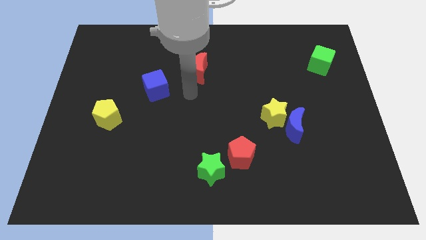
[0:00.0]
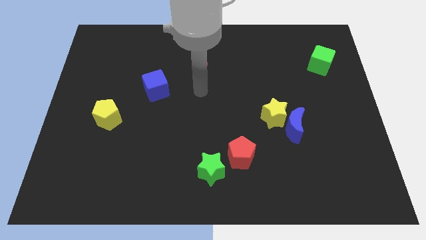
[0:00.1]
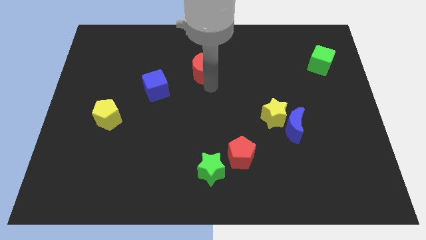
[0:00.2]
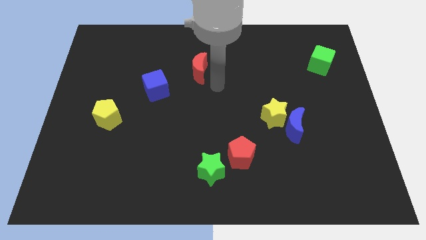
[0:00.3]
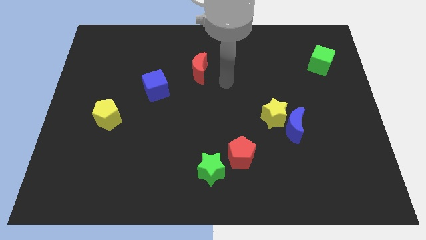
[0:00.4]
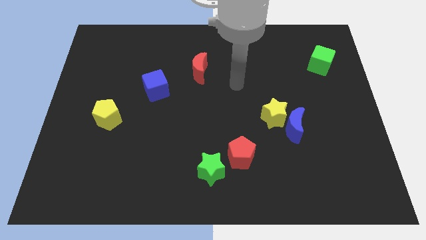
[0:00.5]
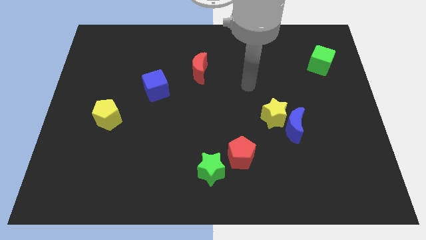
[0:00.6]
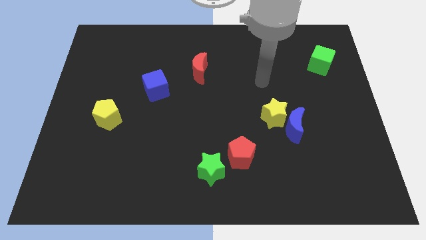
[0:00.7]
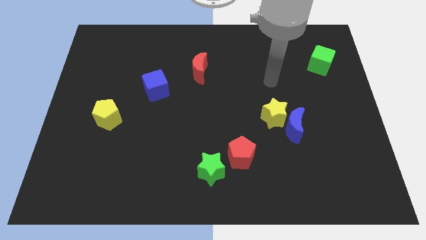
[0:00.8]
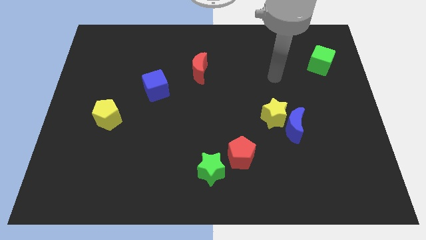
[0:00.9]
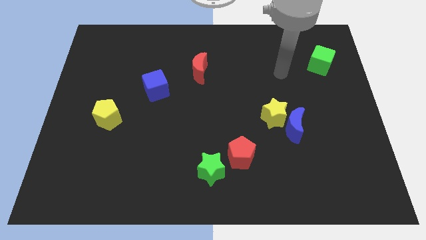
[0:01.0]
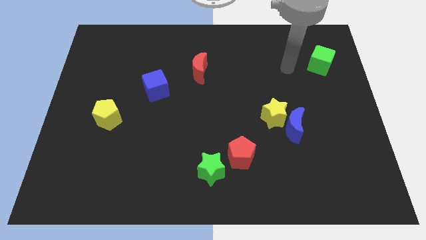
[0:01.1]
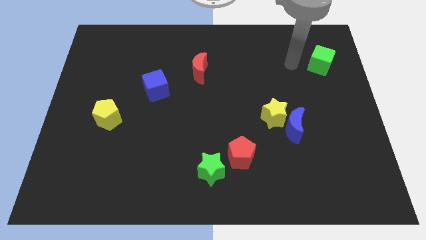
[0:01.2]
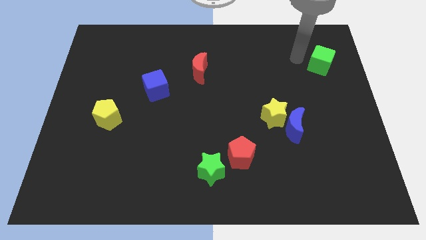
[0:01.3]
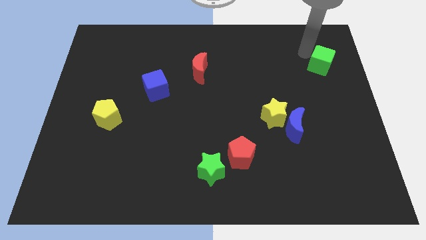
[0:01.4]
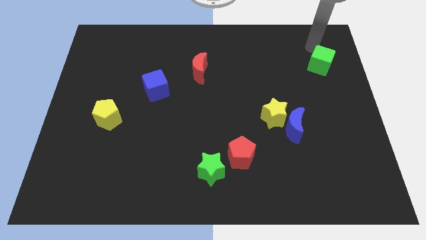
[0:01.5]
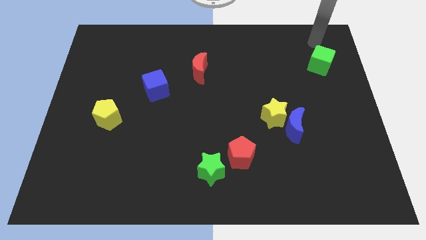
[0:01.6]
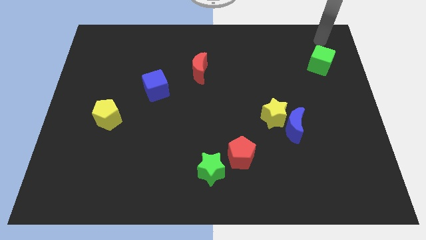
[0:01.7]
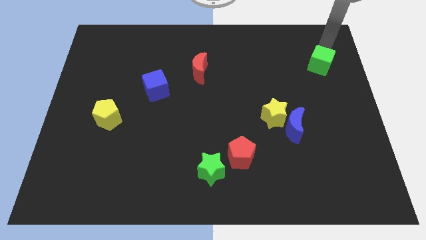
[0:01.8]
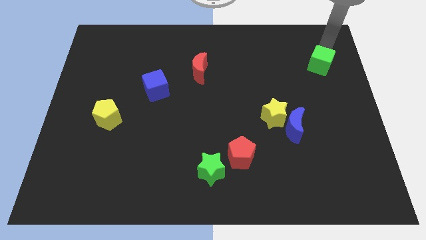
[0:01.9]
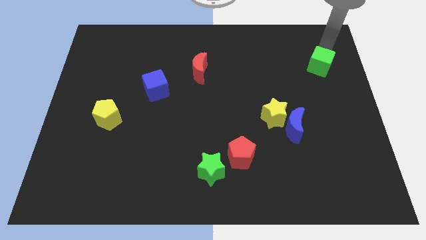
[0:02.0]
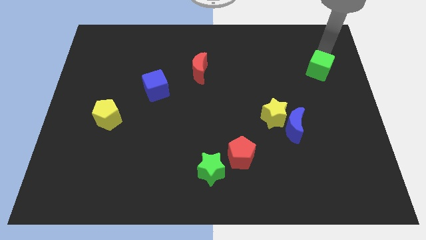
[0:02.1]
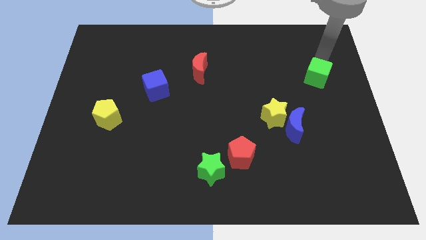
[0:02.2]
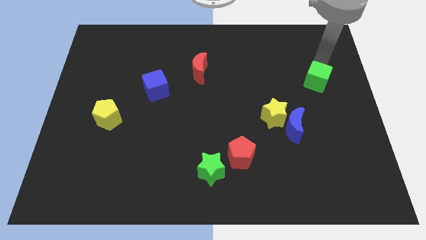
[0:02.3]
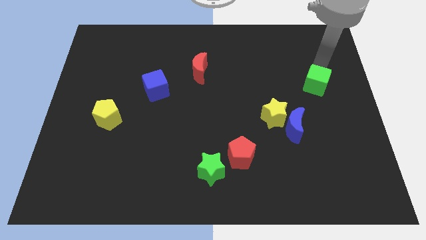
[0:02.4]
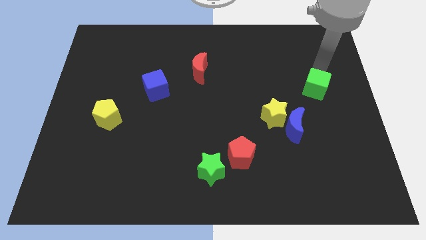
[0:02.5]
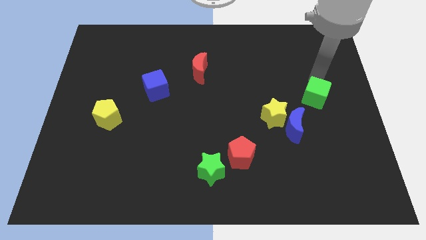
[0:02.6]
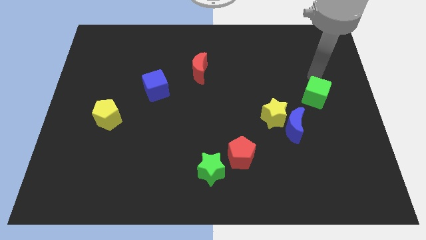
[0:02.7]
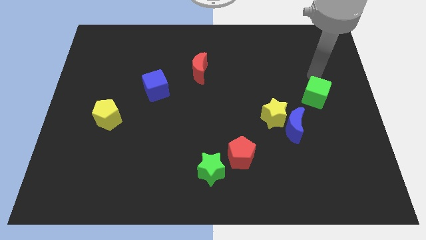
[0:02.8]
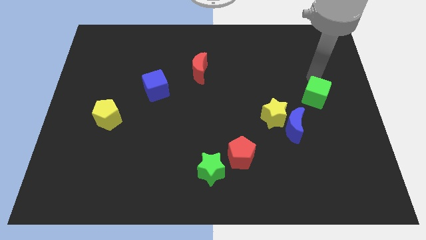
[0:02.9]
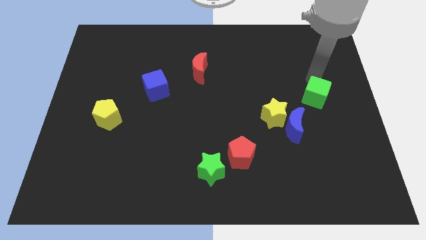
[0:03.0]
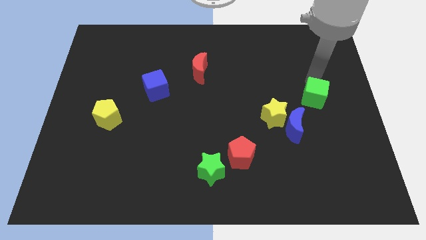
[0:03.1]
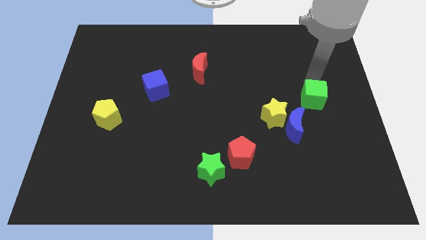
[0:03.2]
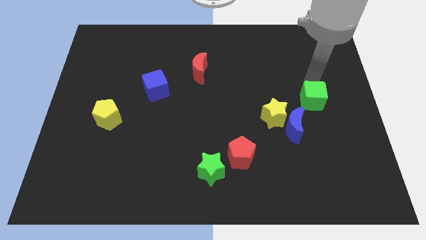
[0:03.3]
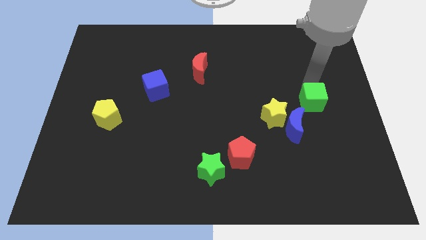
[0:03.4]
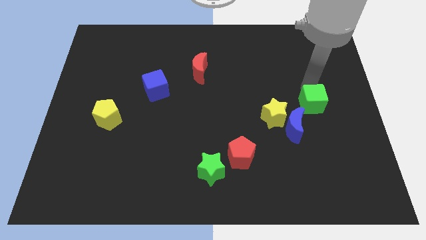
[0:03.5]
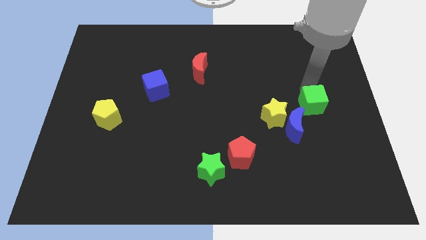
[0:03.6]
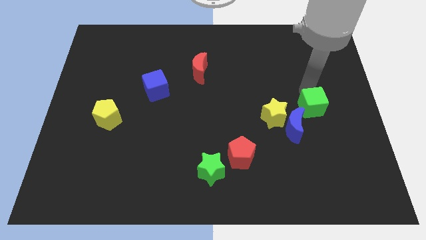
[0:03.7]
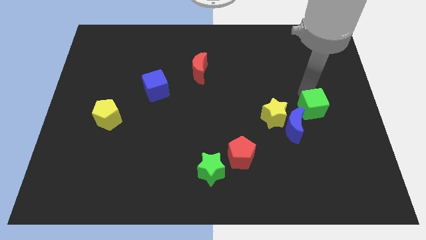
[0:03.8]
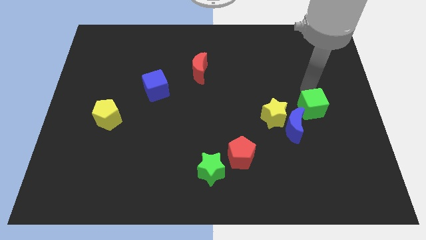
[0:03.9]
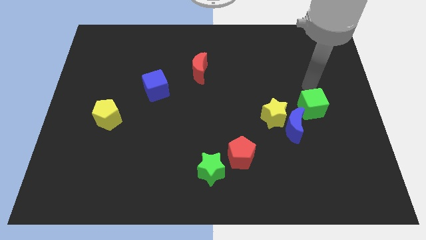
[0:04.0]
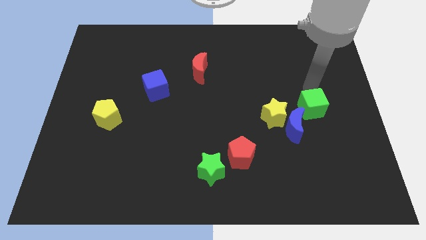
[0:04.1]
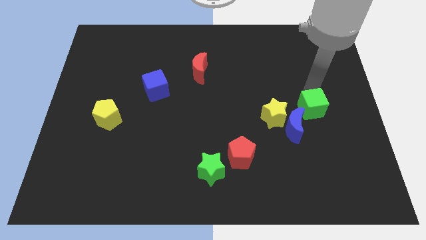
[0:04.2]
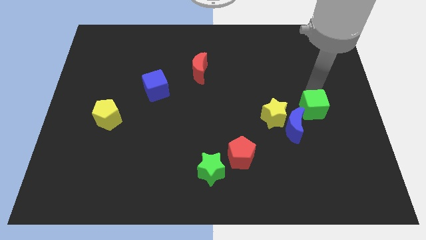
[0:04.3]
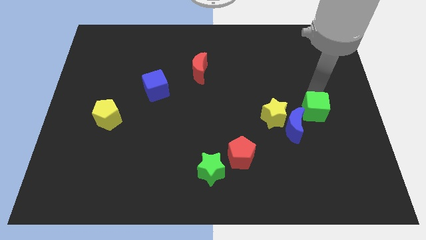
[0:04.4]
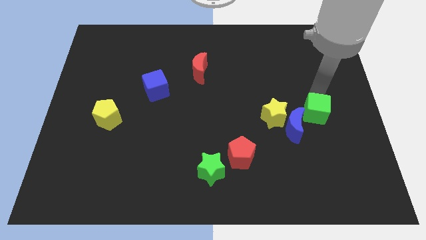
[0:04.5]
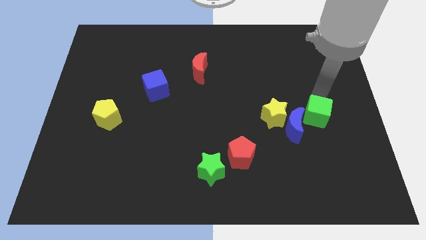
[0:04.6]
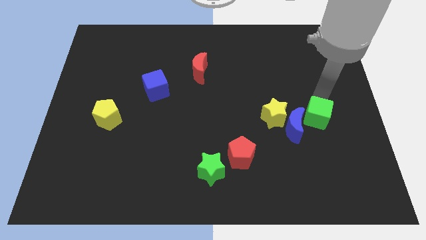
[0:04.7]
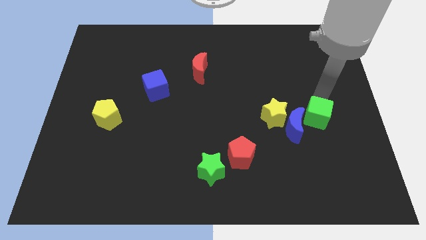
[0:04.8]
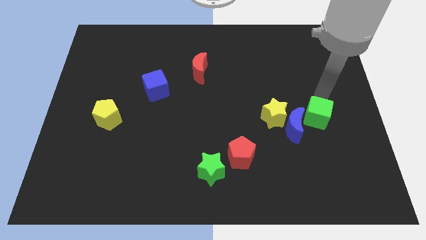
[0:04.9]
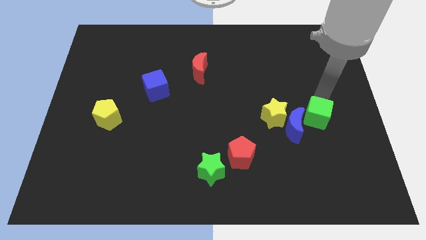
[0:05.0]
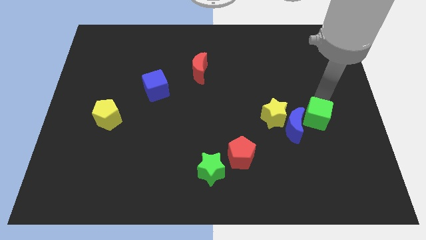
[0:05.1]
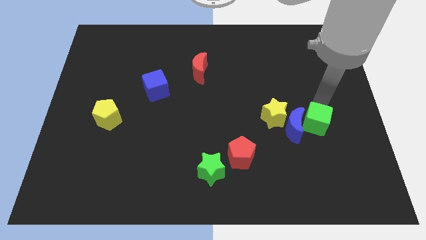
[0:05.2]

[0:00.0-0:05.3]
put the green cube diagonally down and to the right of the blue moon

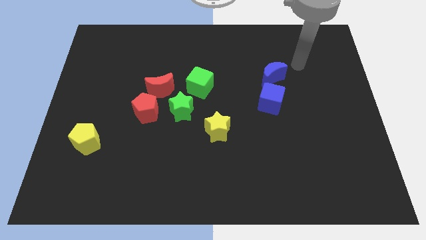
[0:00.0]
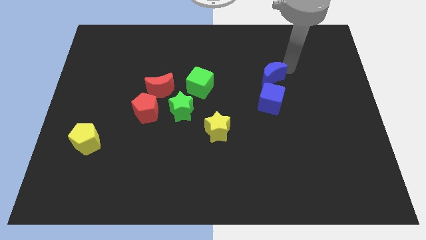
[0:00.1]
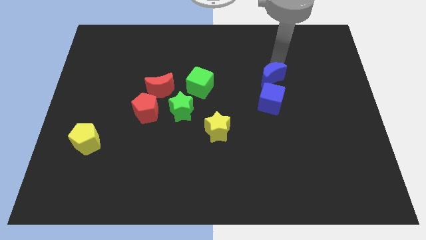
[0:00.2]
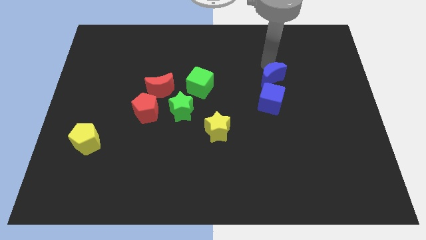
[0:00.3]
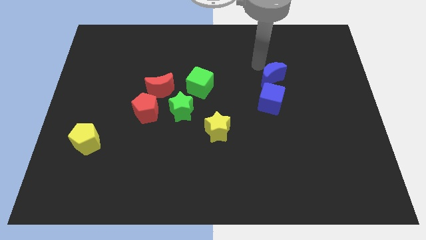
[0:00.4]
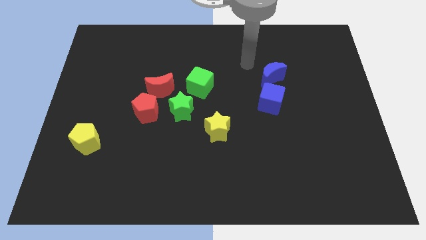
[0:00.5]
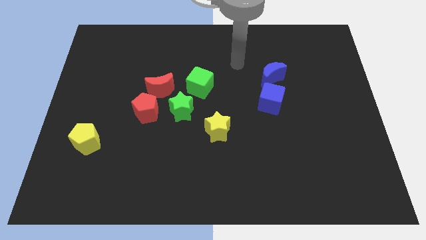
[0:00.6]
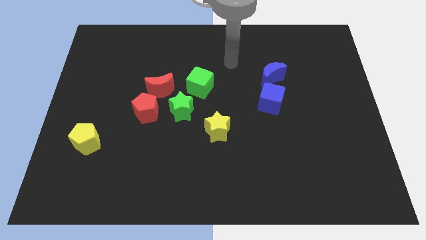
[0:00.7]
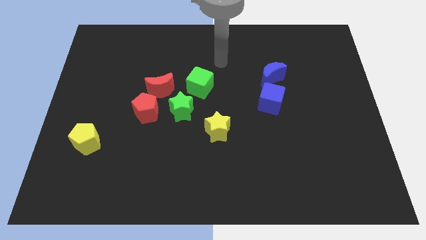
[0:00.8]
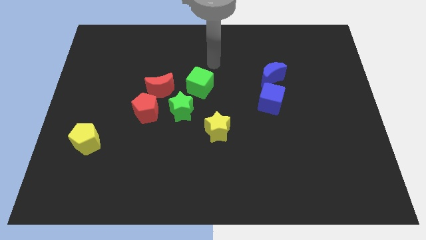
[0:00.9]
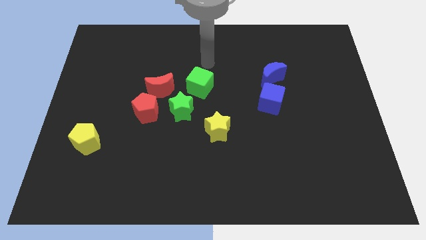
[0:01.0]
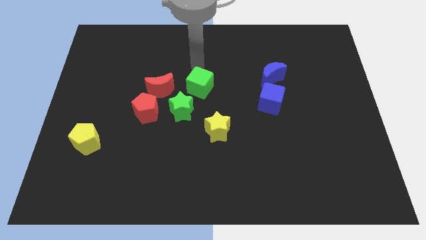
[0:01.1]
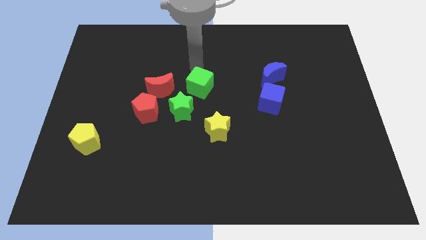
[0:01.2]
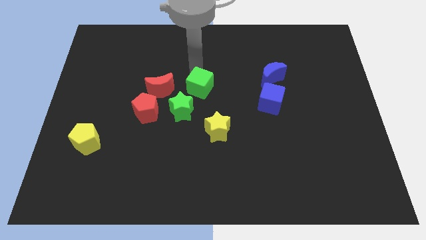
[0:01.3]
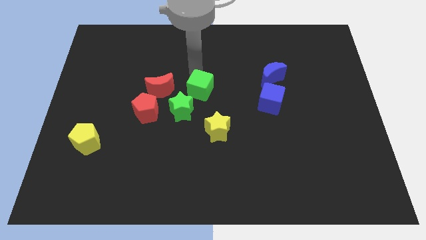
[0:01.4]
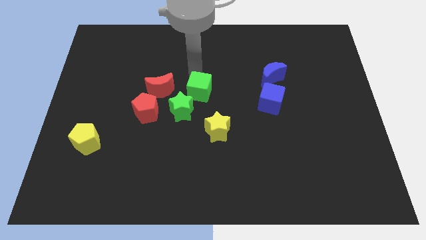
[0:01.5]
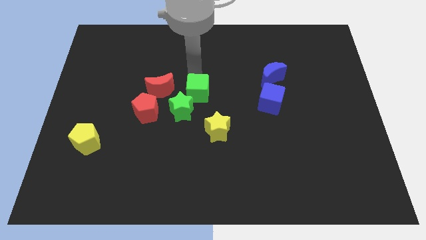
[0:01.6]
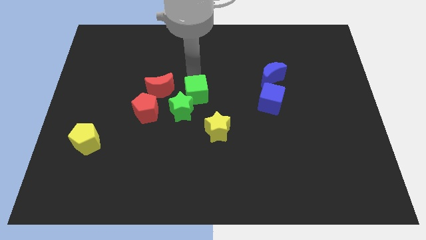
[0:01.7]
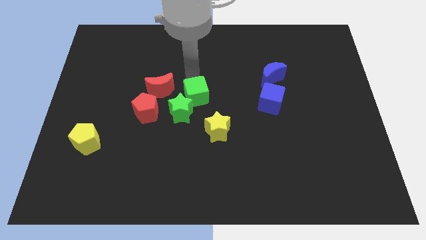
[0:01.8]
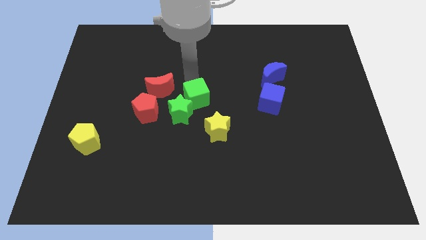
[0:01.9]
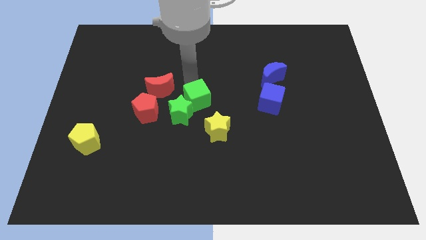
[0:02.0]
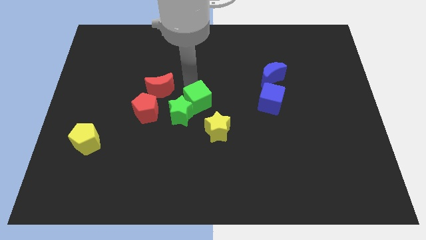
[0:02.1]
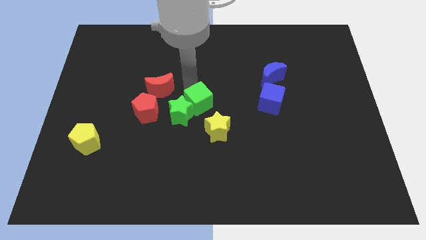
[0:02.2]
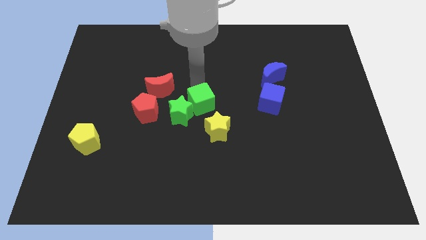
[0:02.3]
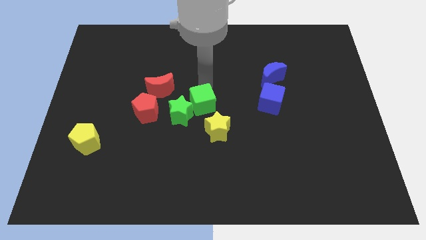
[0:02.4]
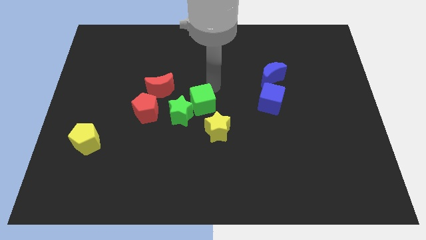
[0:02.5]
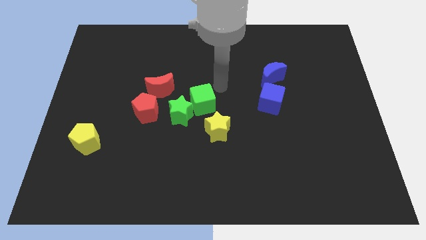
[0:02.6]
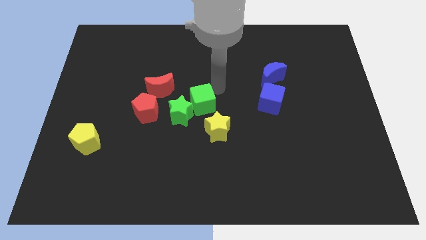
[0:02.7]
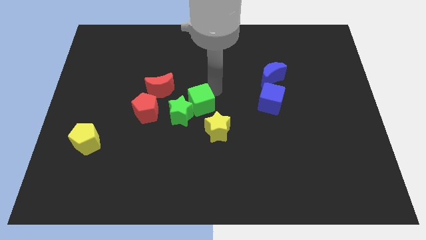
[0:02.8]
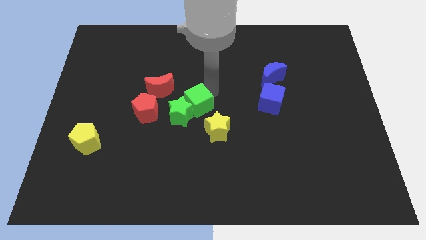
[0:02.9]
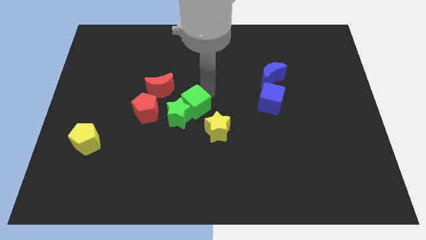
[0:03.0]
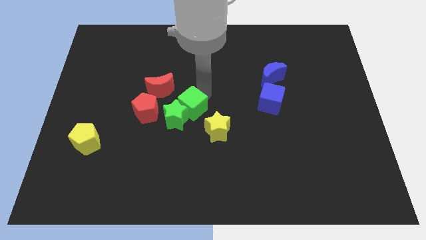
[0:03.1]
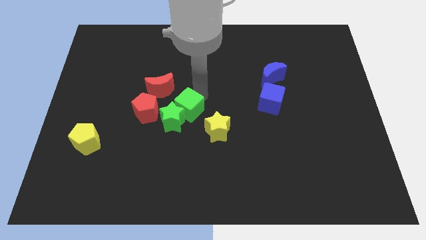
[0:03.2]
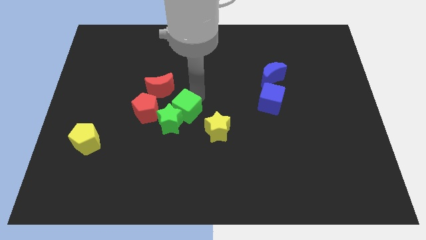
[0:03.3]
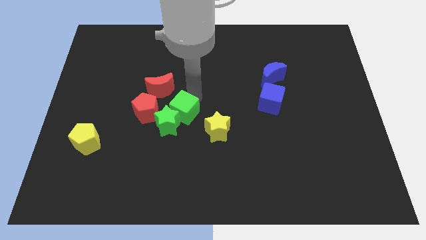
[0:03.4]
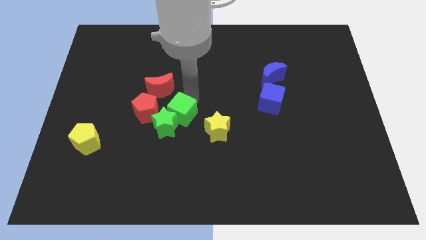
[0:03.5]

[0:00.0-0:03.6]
push the green cube left of the yellow star
